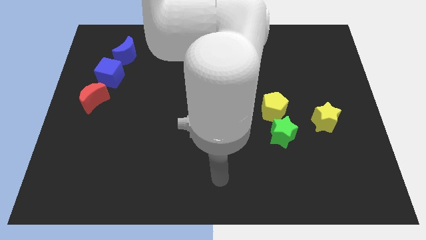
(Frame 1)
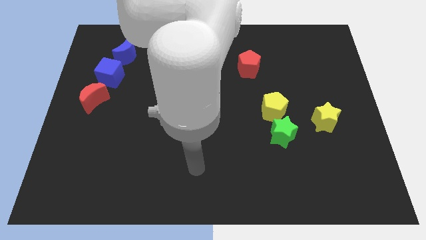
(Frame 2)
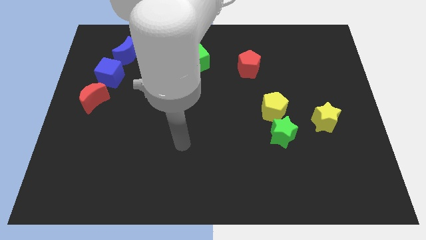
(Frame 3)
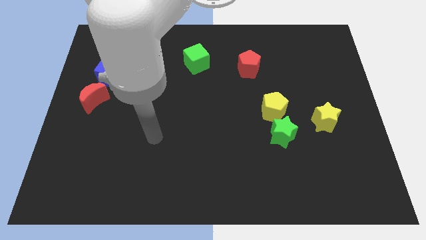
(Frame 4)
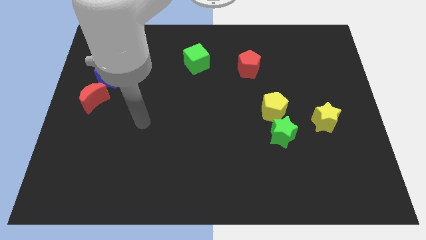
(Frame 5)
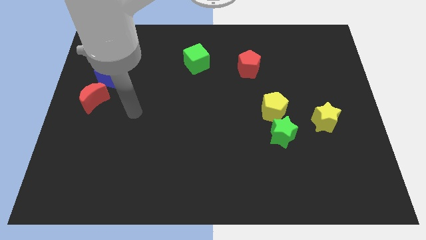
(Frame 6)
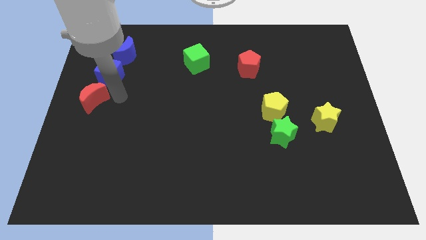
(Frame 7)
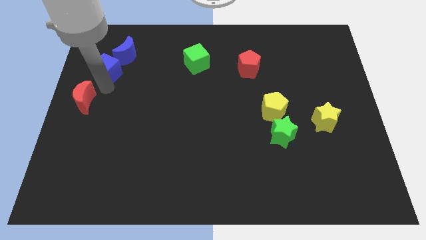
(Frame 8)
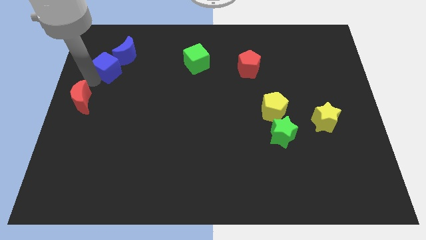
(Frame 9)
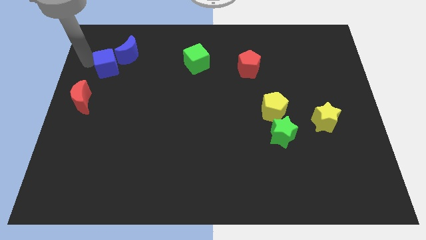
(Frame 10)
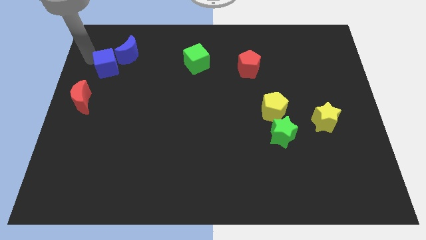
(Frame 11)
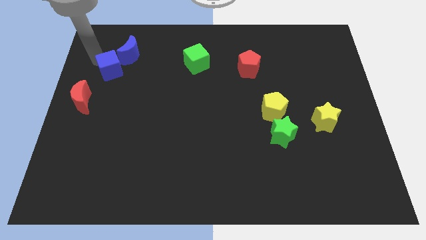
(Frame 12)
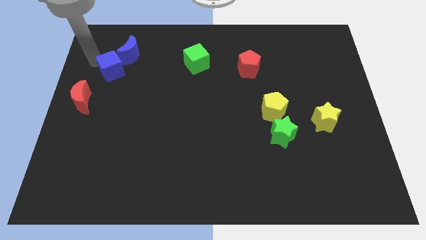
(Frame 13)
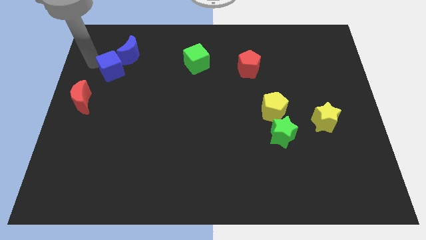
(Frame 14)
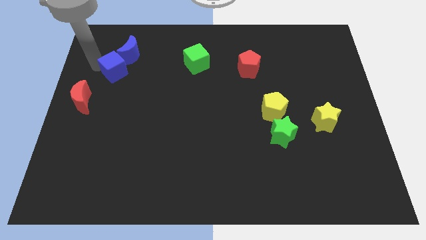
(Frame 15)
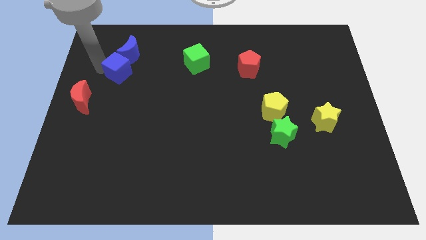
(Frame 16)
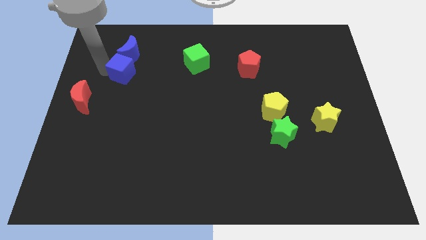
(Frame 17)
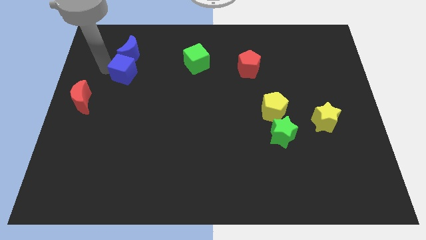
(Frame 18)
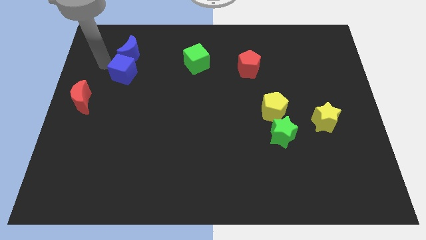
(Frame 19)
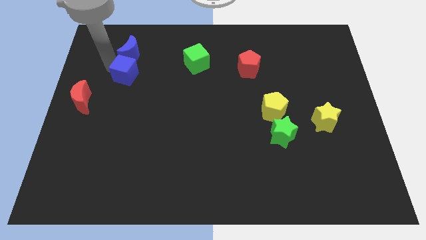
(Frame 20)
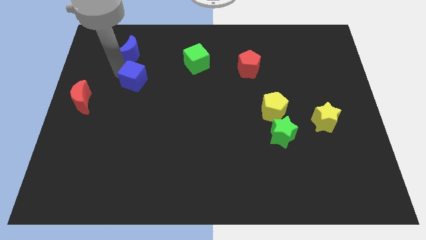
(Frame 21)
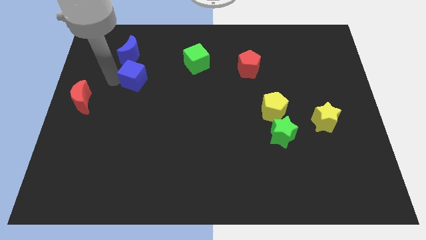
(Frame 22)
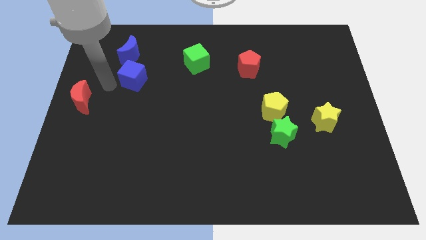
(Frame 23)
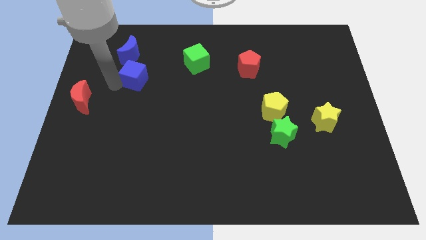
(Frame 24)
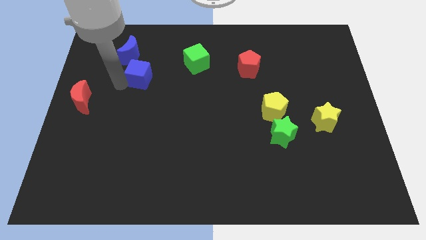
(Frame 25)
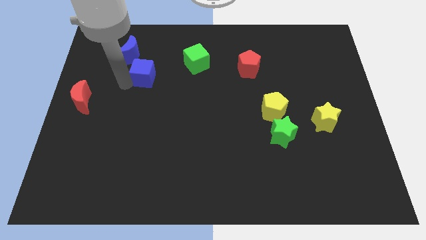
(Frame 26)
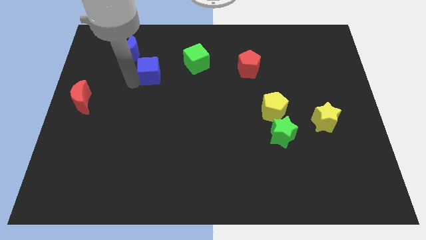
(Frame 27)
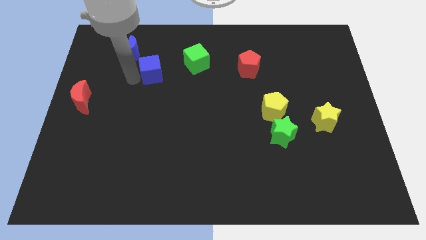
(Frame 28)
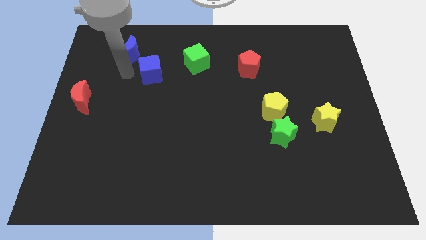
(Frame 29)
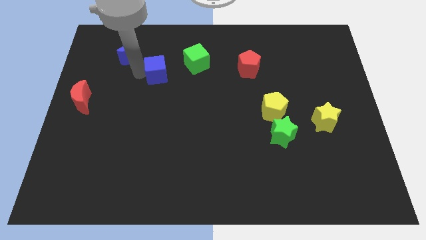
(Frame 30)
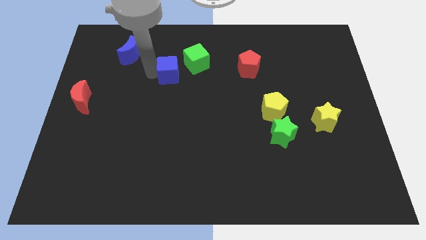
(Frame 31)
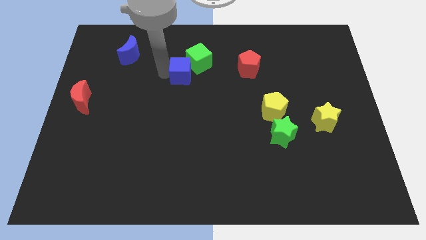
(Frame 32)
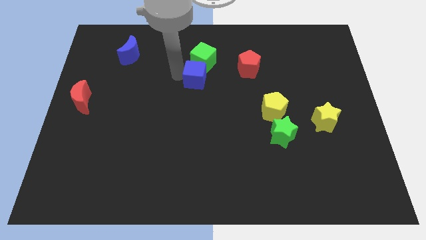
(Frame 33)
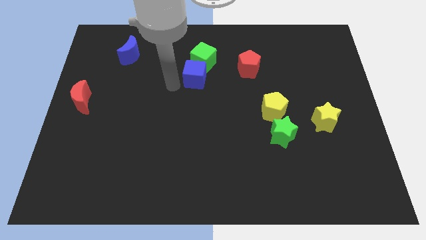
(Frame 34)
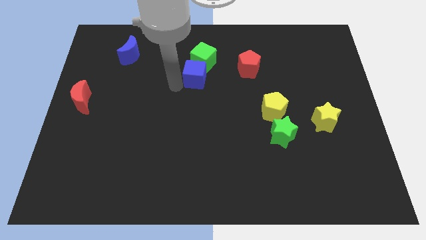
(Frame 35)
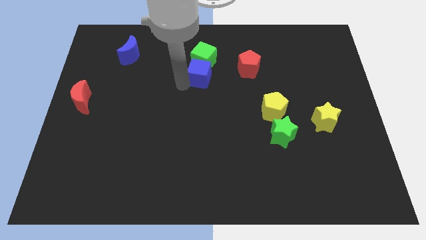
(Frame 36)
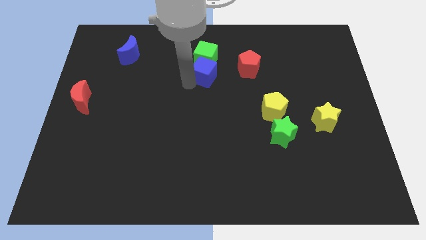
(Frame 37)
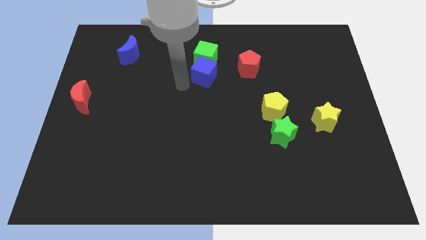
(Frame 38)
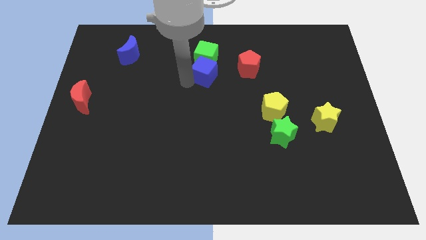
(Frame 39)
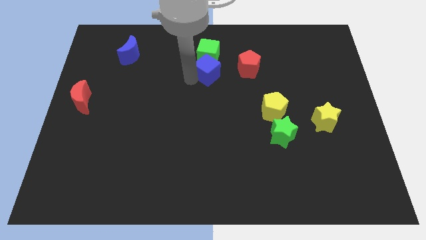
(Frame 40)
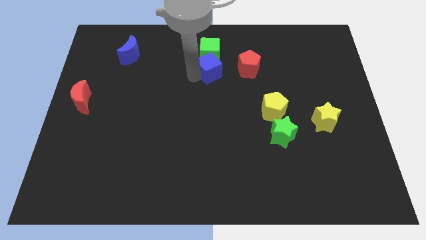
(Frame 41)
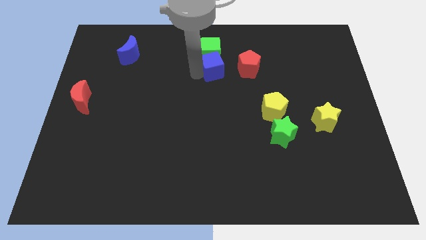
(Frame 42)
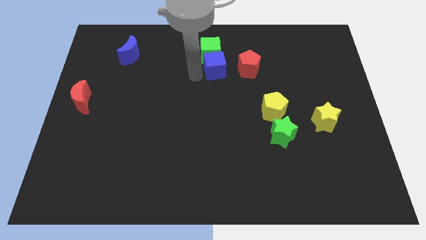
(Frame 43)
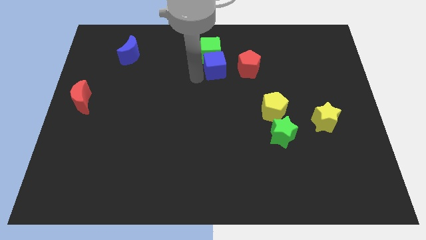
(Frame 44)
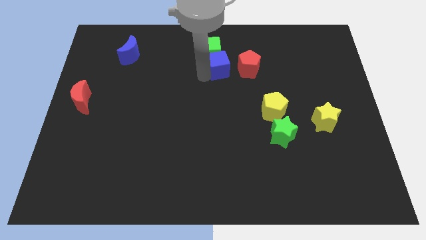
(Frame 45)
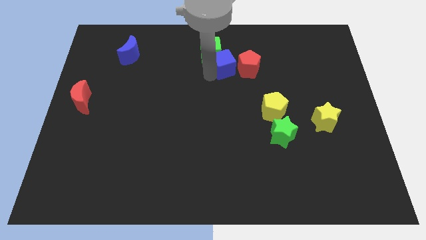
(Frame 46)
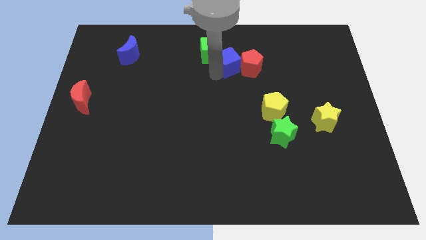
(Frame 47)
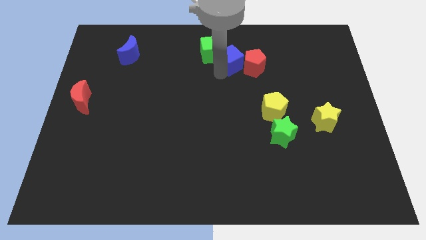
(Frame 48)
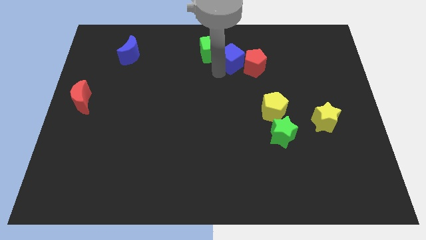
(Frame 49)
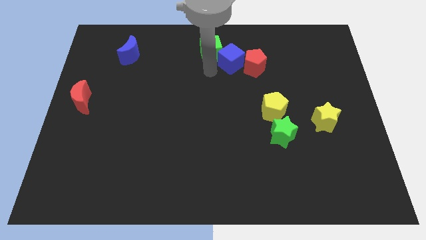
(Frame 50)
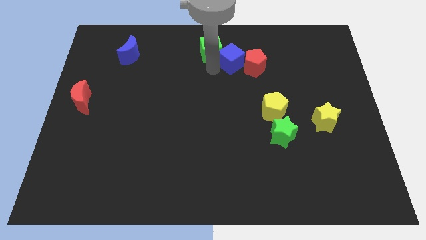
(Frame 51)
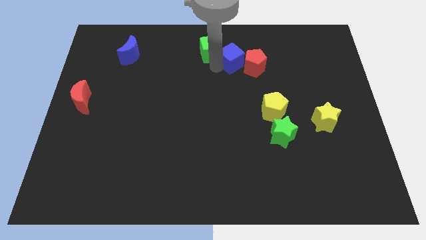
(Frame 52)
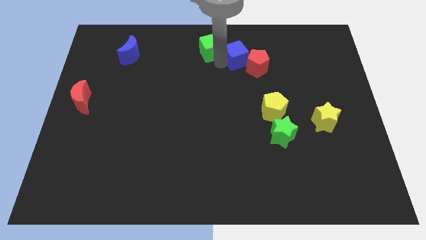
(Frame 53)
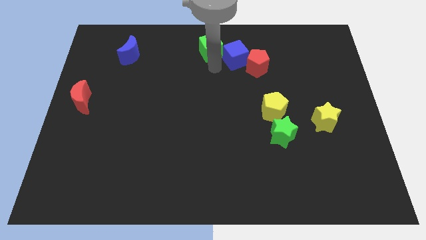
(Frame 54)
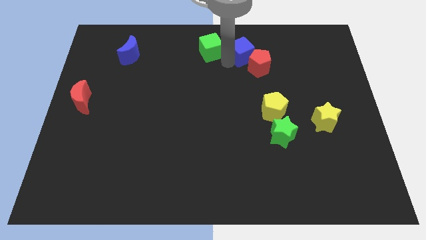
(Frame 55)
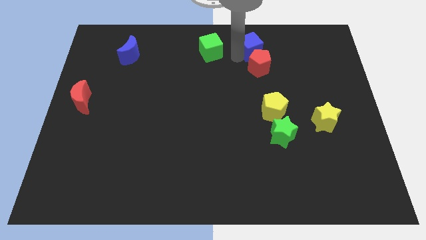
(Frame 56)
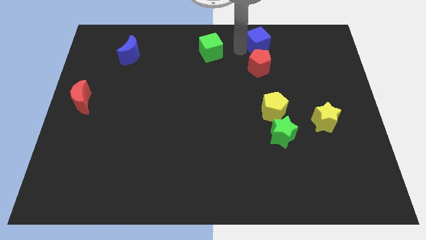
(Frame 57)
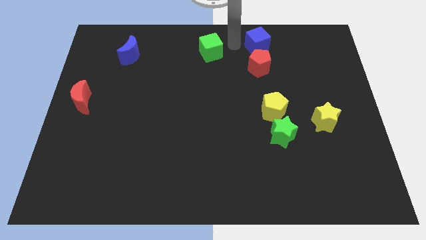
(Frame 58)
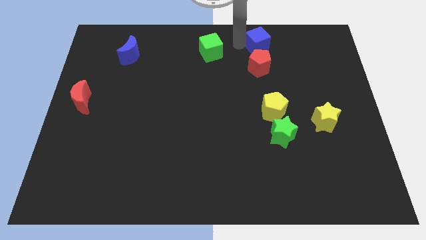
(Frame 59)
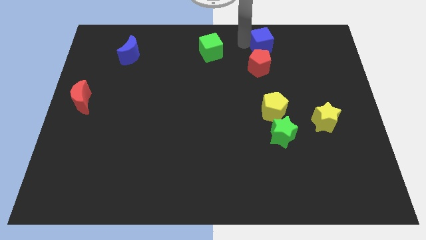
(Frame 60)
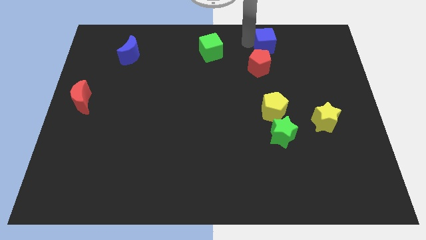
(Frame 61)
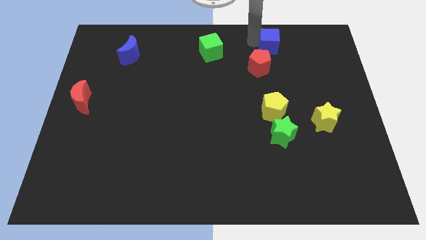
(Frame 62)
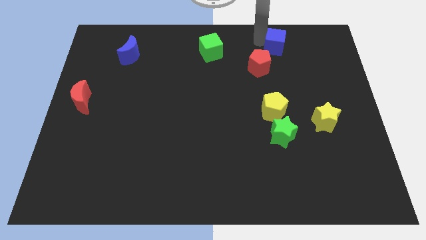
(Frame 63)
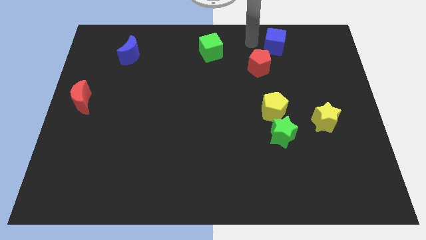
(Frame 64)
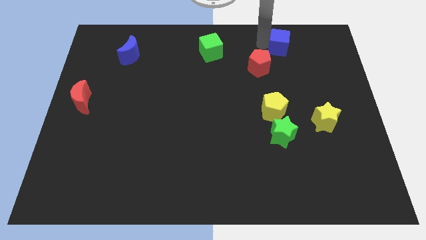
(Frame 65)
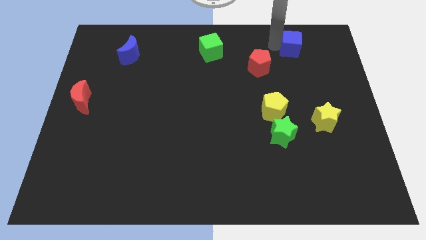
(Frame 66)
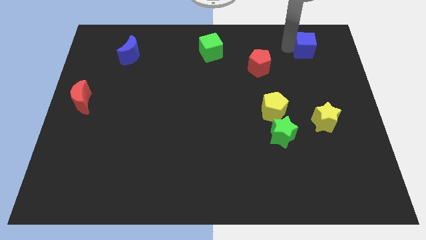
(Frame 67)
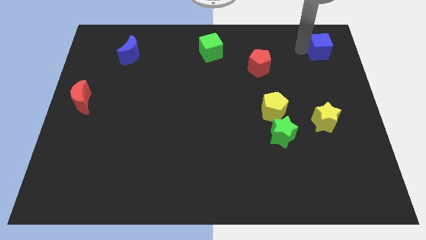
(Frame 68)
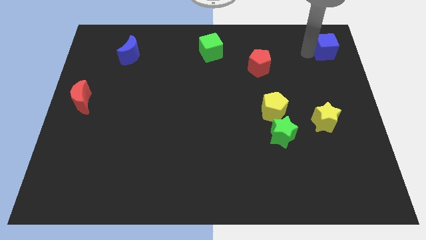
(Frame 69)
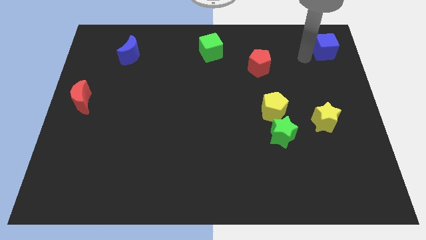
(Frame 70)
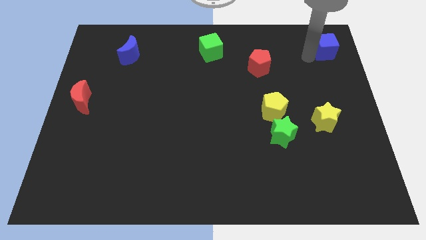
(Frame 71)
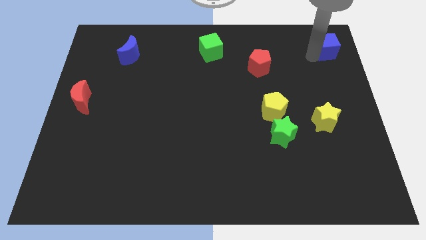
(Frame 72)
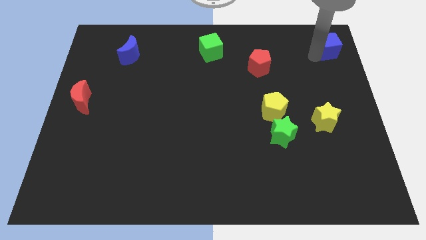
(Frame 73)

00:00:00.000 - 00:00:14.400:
put the blue cube to the top right
